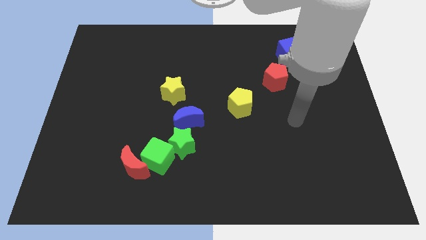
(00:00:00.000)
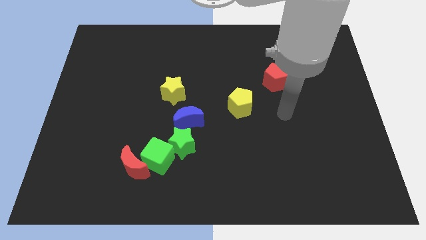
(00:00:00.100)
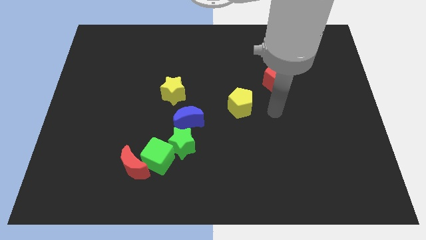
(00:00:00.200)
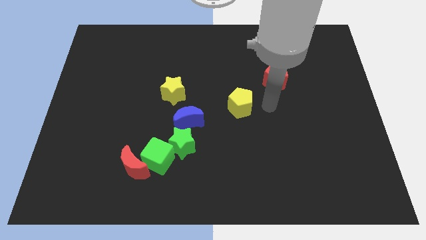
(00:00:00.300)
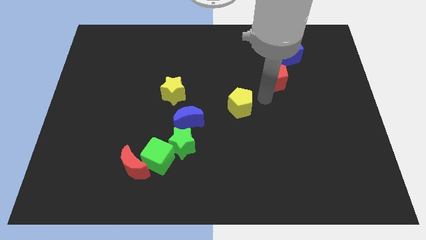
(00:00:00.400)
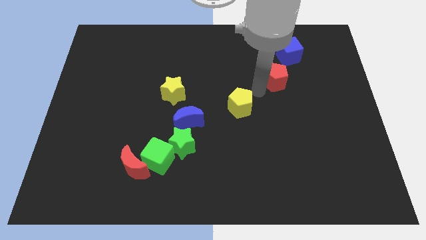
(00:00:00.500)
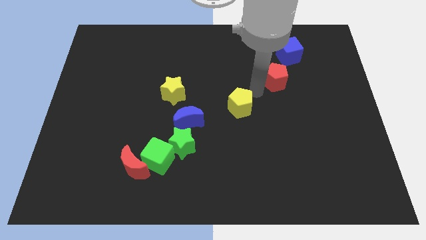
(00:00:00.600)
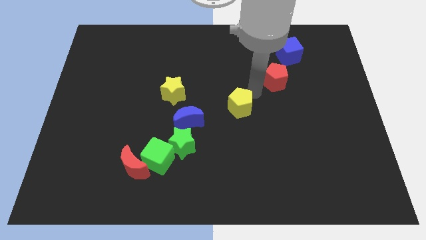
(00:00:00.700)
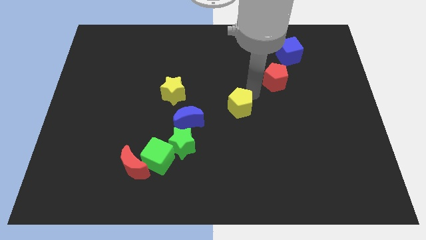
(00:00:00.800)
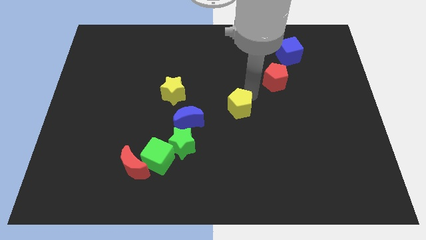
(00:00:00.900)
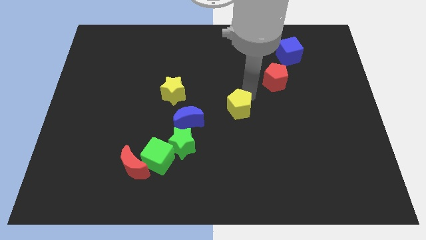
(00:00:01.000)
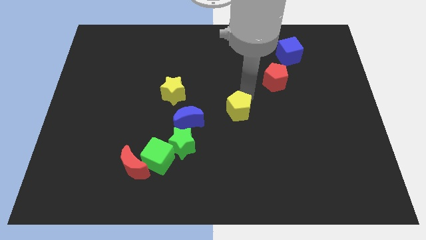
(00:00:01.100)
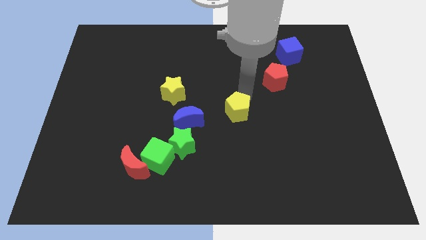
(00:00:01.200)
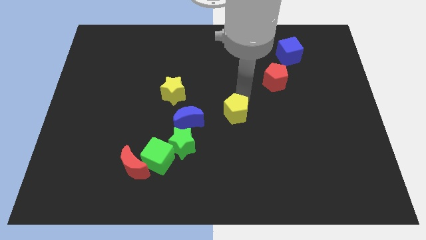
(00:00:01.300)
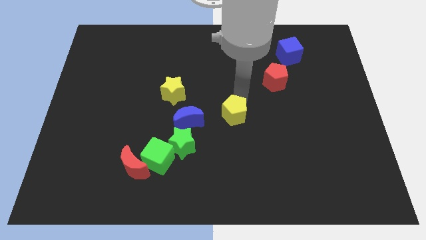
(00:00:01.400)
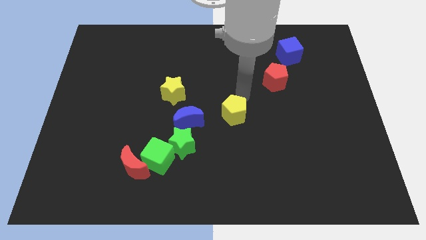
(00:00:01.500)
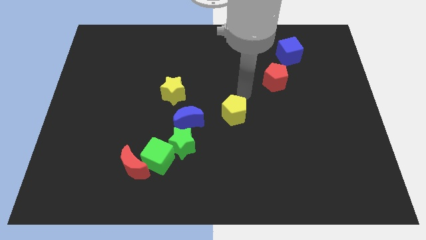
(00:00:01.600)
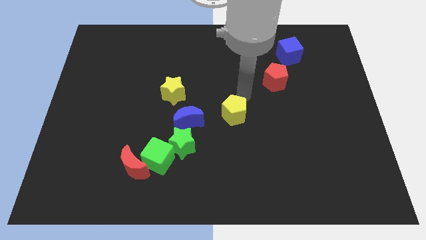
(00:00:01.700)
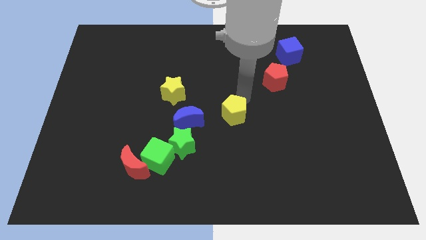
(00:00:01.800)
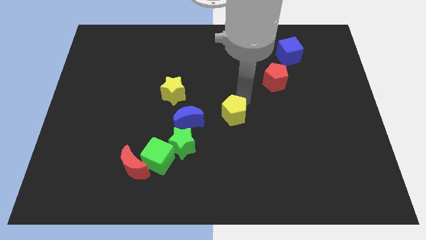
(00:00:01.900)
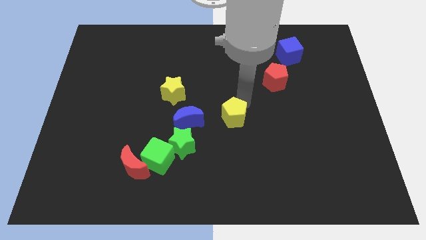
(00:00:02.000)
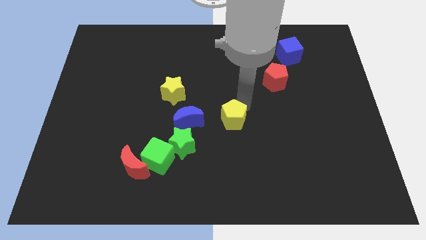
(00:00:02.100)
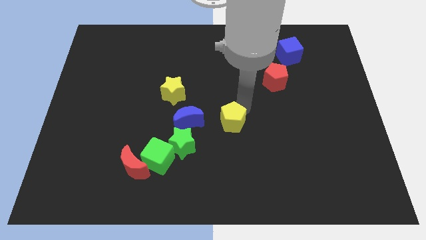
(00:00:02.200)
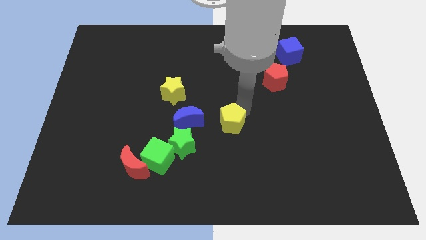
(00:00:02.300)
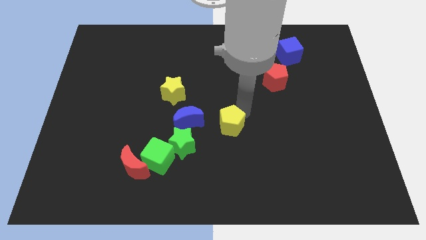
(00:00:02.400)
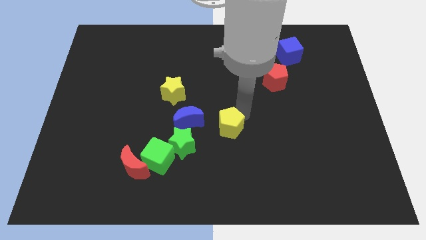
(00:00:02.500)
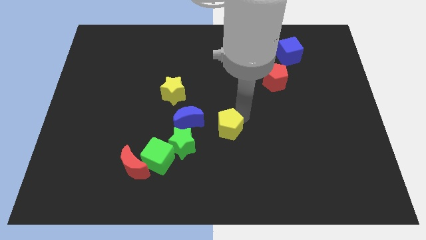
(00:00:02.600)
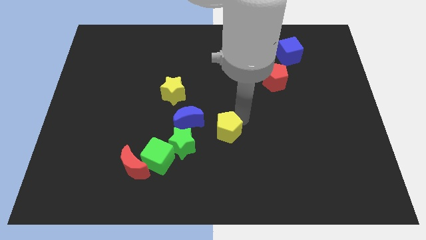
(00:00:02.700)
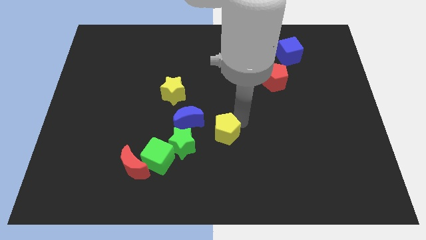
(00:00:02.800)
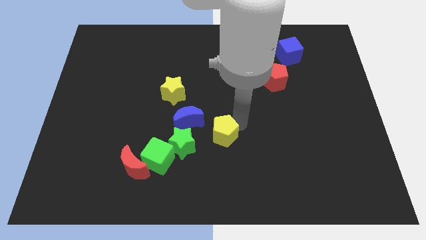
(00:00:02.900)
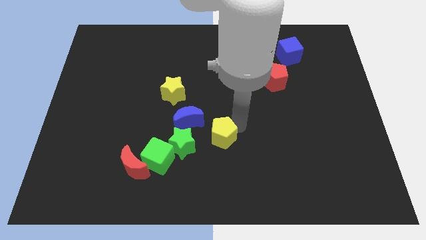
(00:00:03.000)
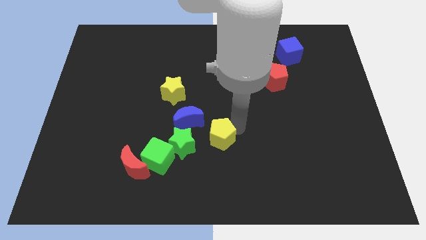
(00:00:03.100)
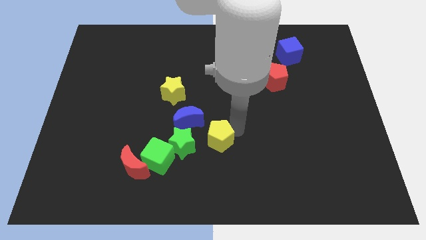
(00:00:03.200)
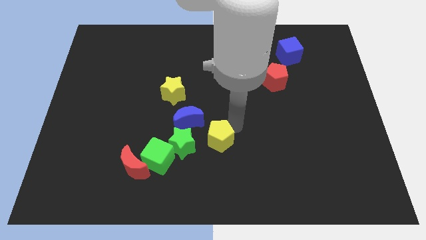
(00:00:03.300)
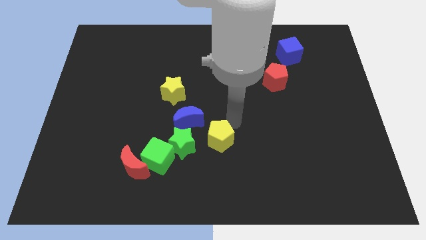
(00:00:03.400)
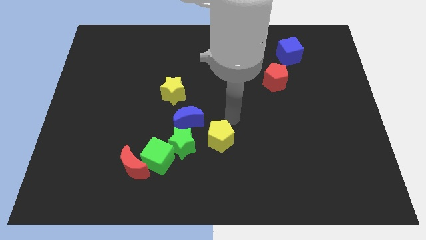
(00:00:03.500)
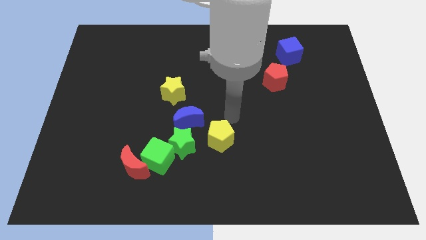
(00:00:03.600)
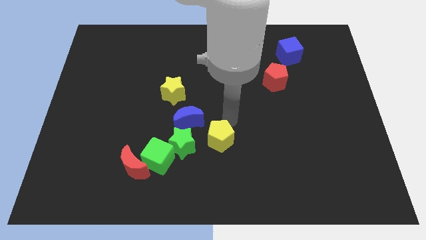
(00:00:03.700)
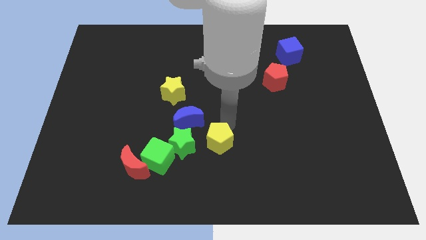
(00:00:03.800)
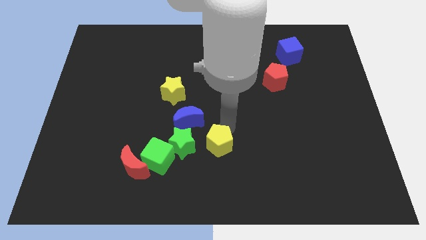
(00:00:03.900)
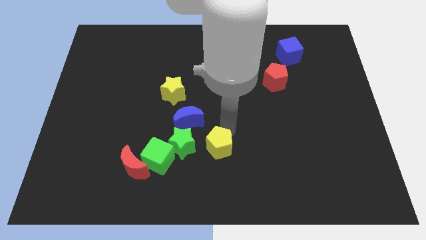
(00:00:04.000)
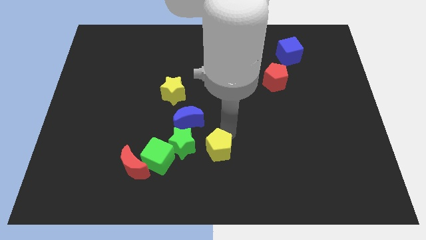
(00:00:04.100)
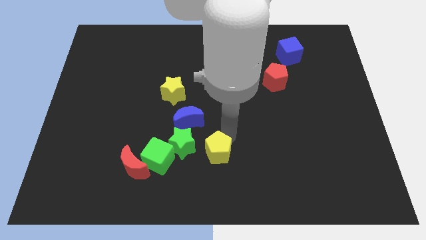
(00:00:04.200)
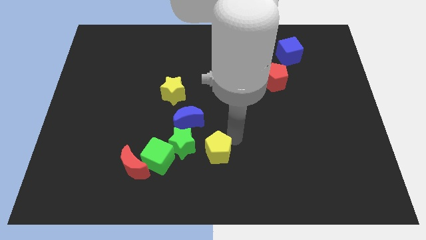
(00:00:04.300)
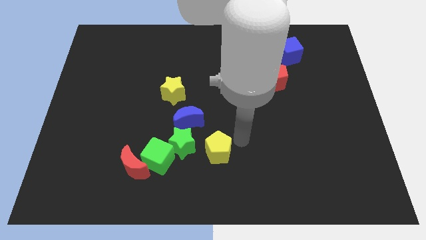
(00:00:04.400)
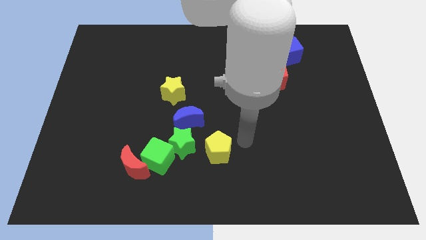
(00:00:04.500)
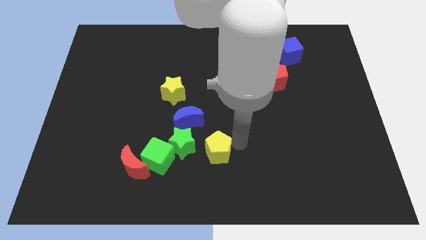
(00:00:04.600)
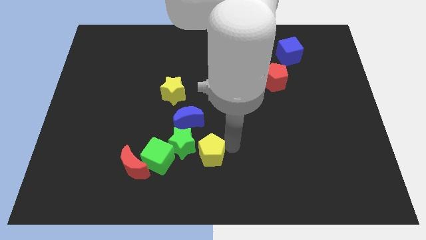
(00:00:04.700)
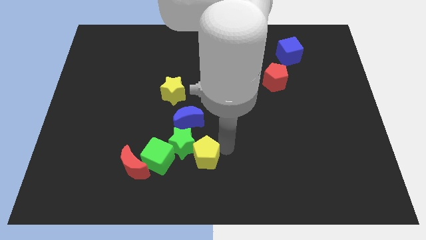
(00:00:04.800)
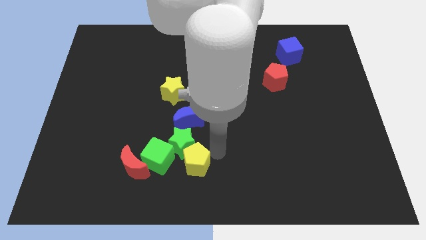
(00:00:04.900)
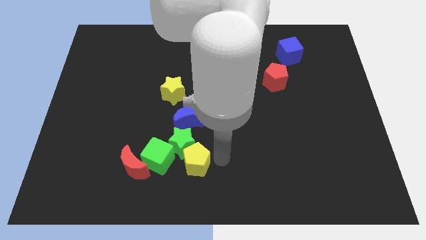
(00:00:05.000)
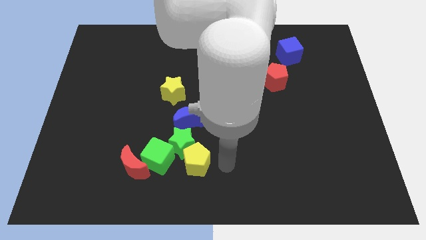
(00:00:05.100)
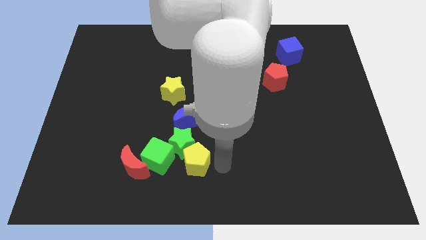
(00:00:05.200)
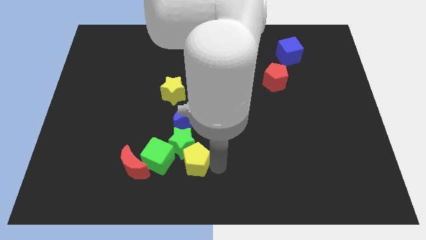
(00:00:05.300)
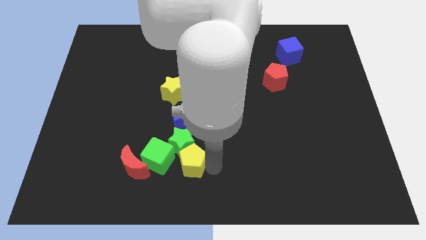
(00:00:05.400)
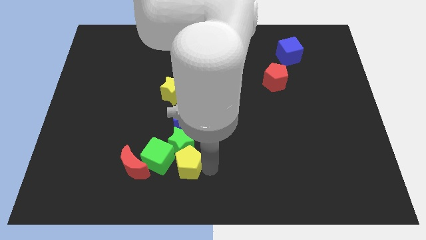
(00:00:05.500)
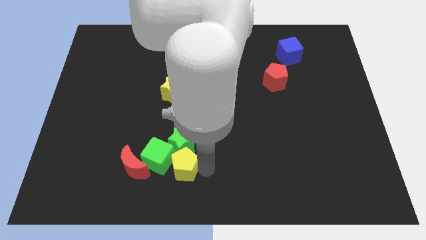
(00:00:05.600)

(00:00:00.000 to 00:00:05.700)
slide the yellow pentagon to the green cube

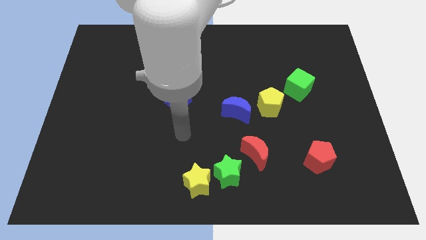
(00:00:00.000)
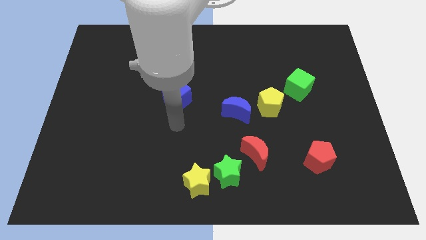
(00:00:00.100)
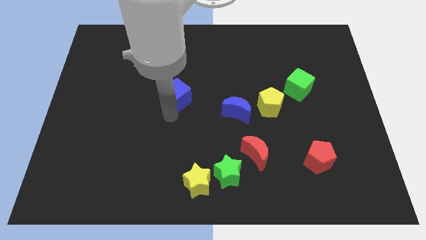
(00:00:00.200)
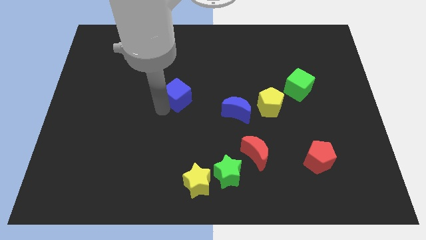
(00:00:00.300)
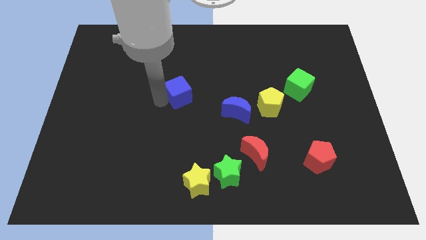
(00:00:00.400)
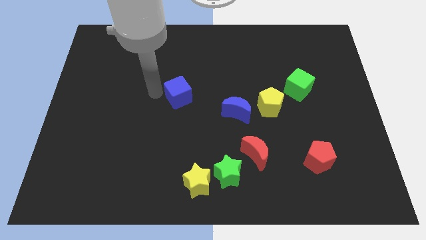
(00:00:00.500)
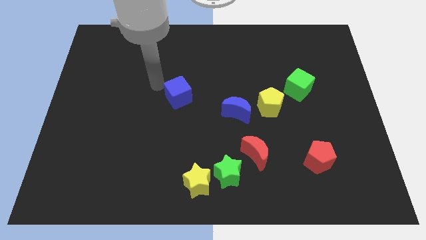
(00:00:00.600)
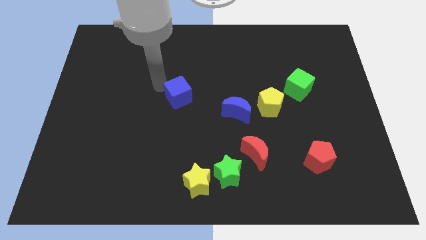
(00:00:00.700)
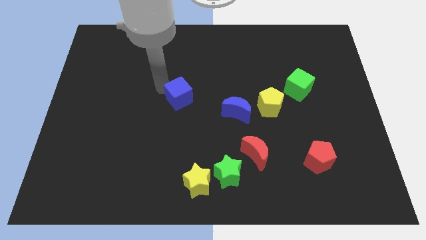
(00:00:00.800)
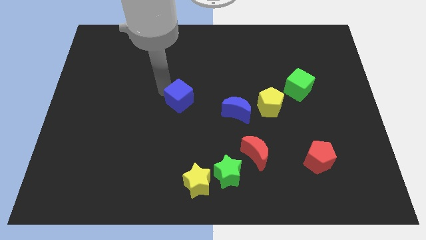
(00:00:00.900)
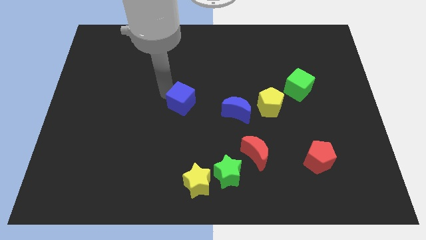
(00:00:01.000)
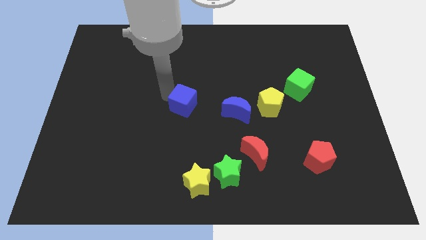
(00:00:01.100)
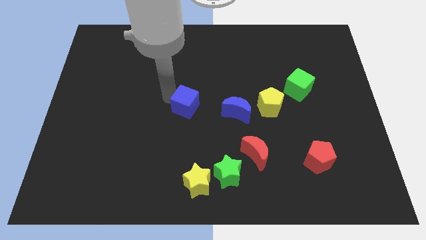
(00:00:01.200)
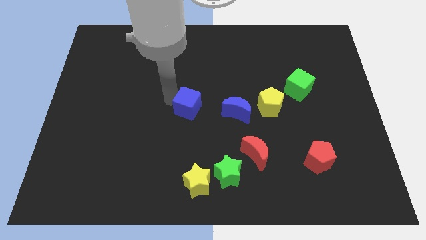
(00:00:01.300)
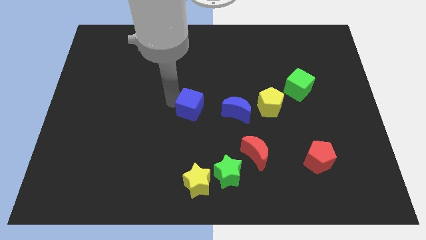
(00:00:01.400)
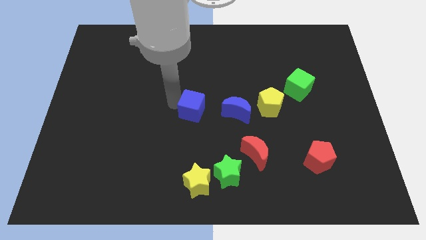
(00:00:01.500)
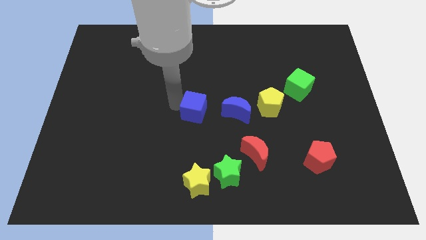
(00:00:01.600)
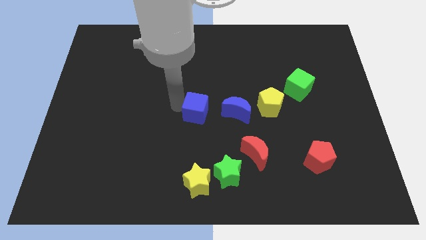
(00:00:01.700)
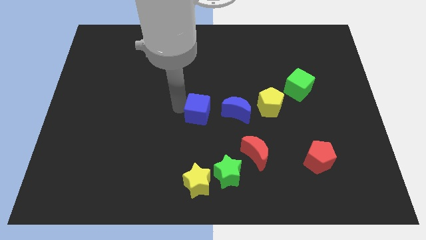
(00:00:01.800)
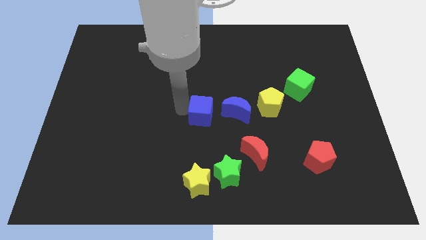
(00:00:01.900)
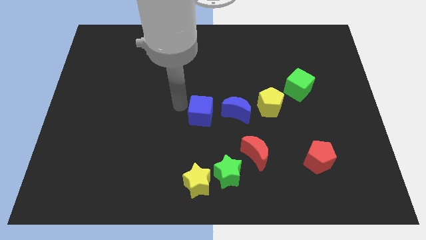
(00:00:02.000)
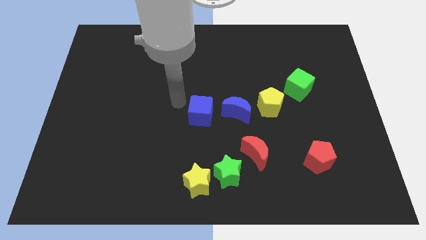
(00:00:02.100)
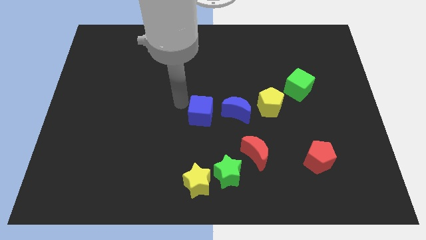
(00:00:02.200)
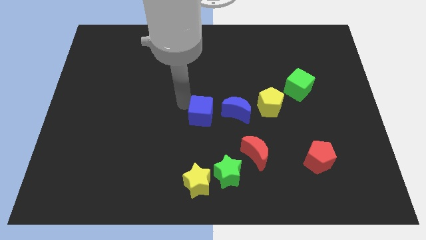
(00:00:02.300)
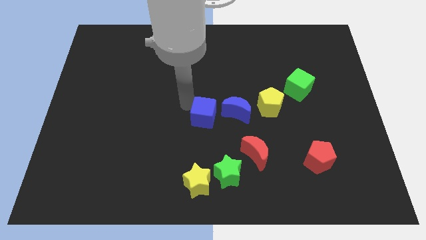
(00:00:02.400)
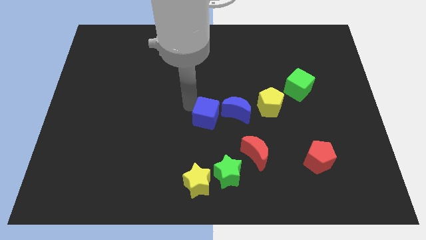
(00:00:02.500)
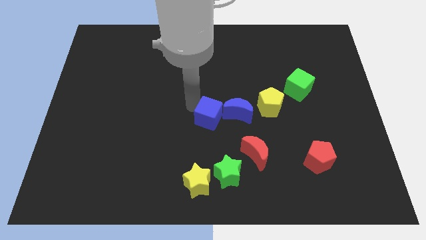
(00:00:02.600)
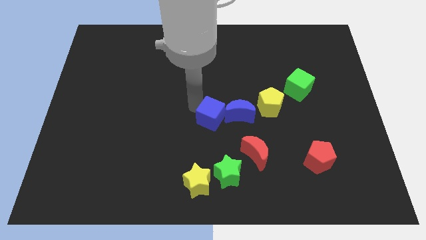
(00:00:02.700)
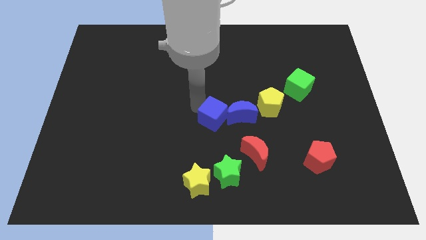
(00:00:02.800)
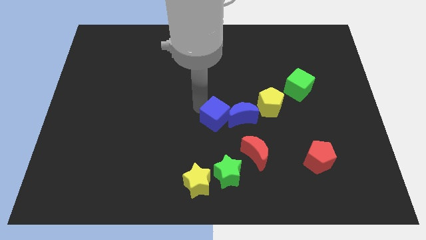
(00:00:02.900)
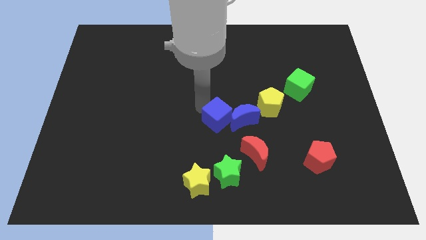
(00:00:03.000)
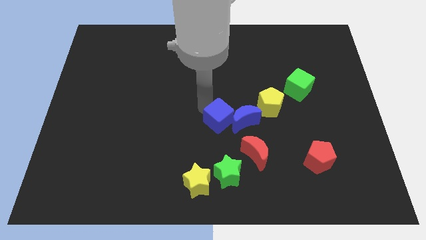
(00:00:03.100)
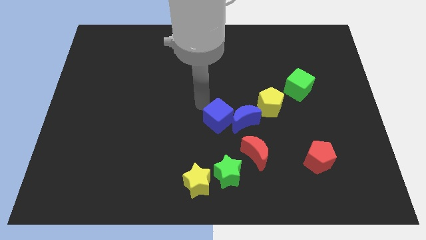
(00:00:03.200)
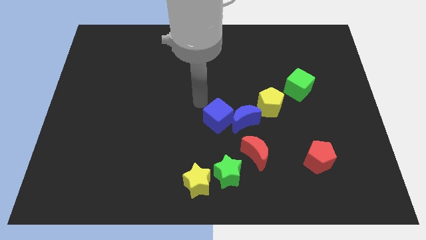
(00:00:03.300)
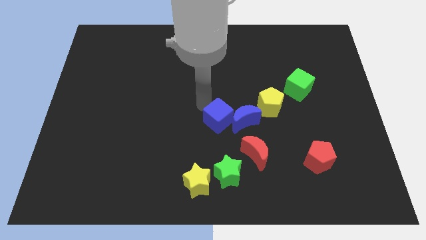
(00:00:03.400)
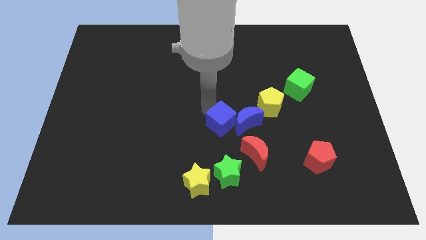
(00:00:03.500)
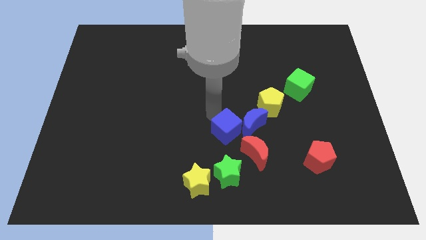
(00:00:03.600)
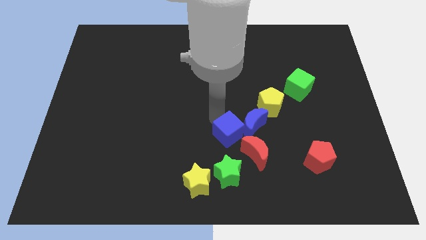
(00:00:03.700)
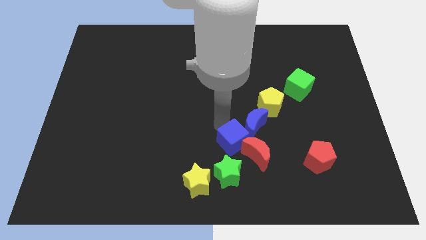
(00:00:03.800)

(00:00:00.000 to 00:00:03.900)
put the blue cube to the red moon
